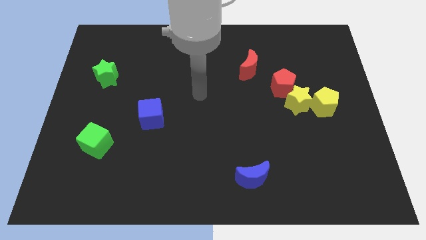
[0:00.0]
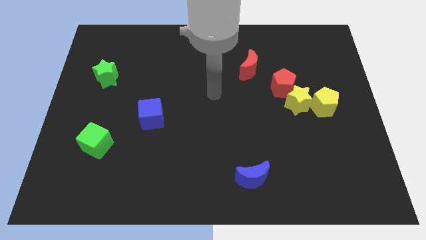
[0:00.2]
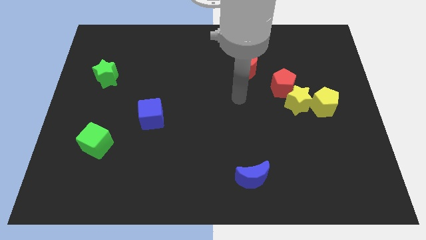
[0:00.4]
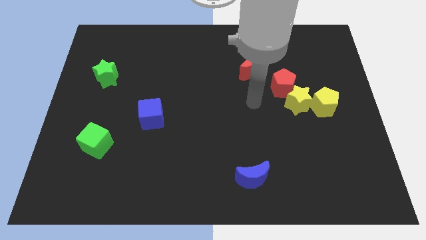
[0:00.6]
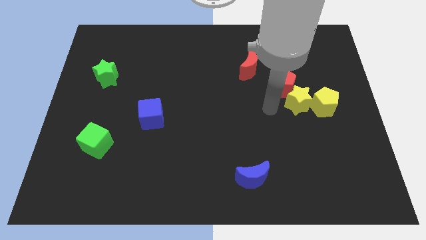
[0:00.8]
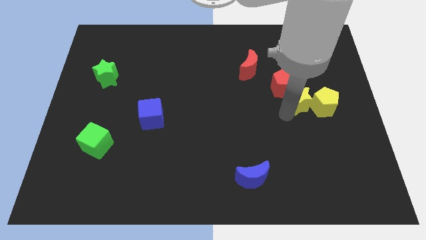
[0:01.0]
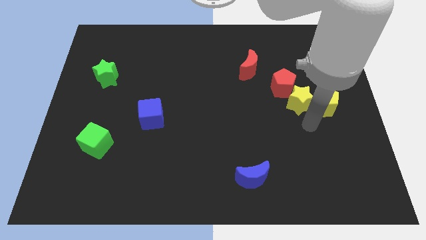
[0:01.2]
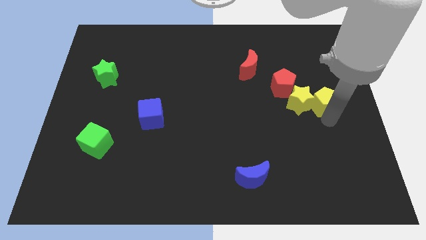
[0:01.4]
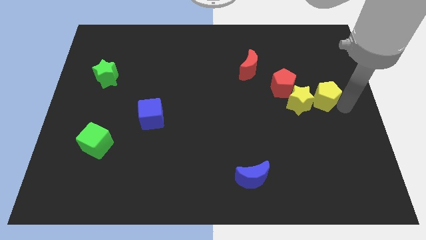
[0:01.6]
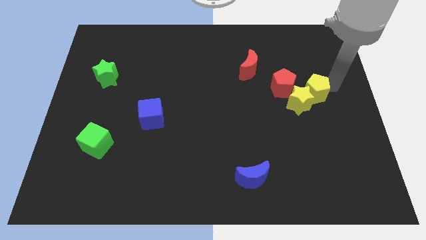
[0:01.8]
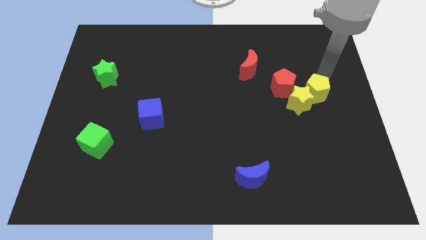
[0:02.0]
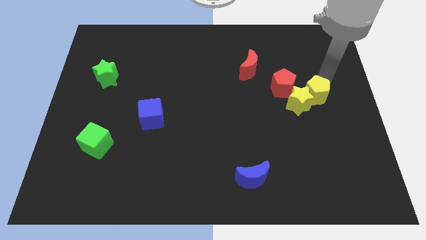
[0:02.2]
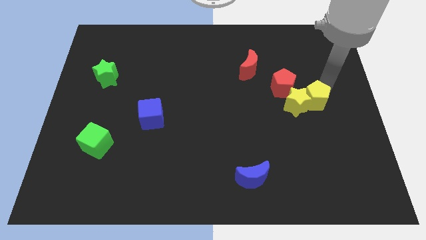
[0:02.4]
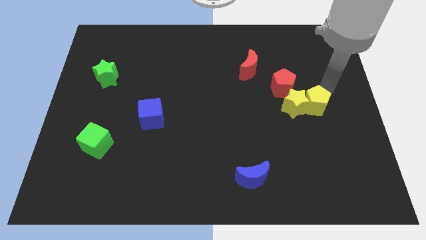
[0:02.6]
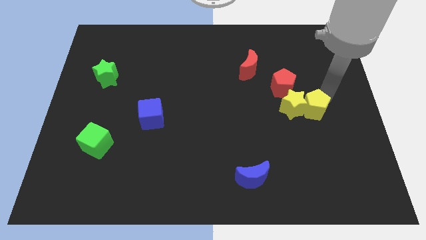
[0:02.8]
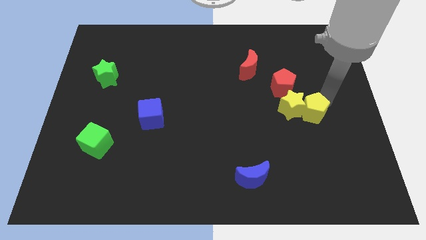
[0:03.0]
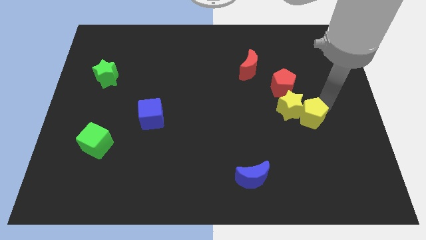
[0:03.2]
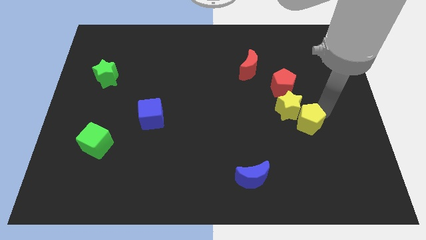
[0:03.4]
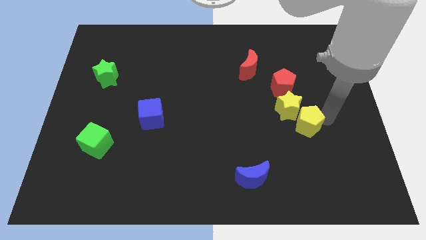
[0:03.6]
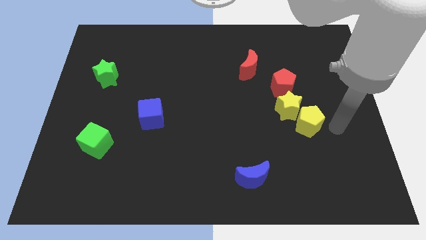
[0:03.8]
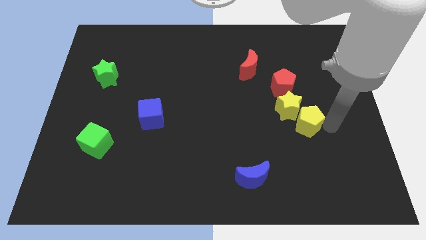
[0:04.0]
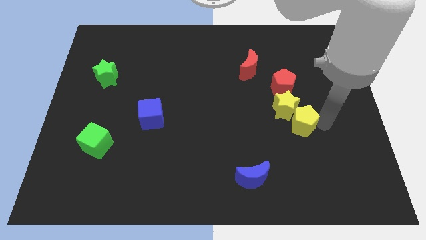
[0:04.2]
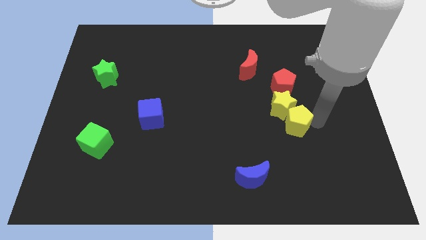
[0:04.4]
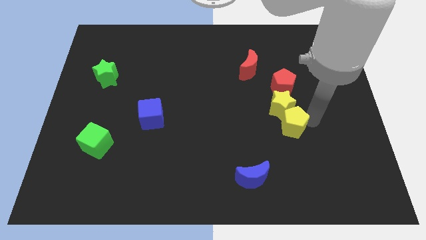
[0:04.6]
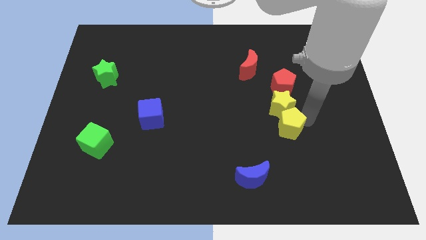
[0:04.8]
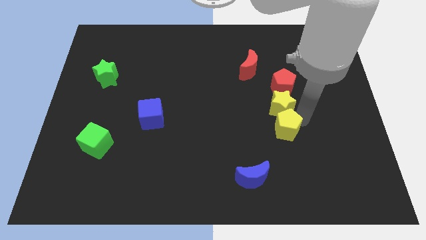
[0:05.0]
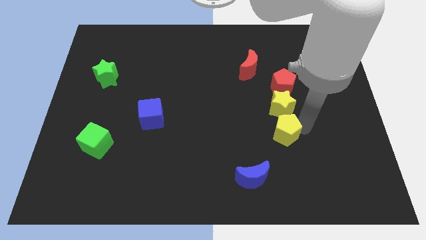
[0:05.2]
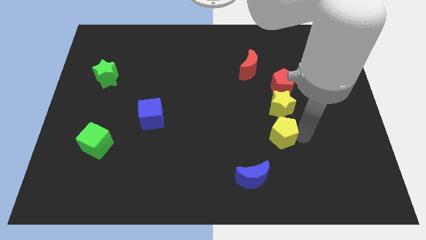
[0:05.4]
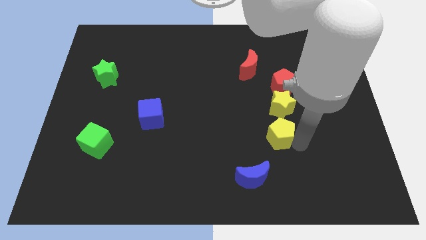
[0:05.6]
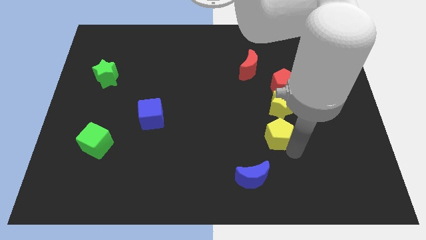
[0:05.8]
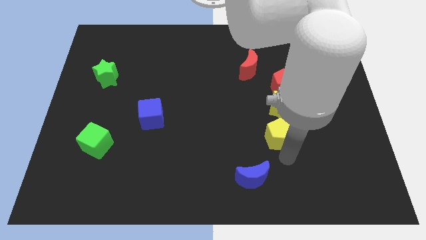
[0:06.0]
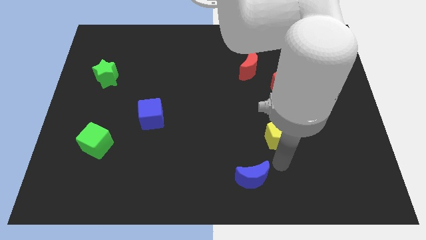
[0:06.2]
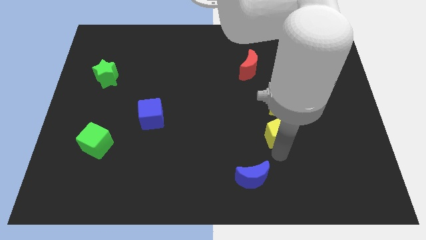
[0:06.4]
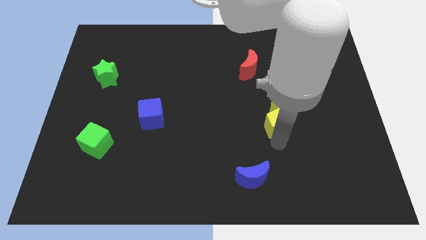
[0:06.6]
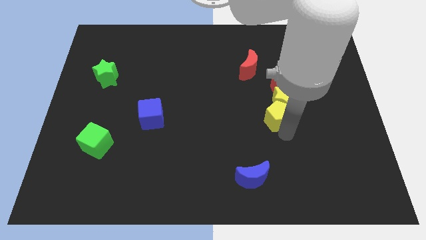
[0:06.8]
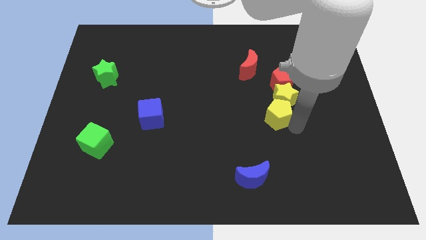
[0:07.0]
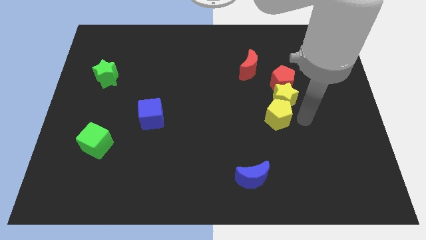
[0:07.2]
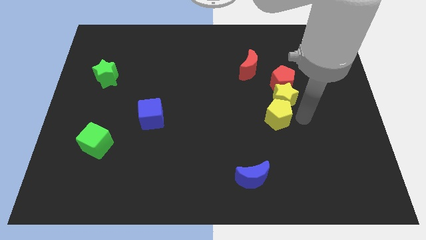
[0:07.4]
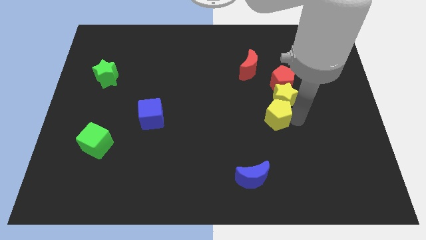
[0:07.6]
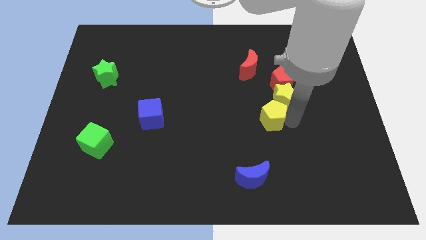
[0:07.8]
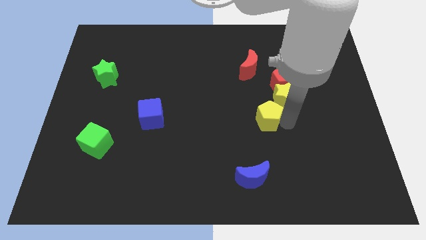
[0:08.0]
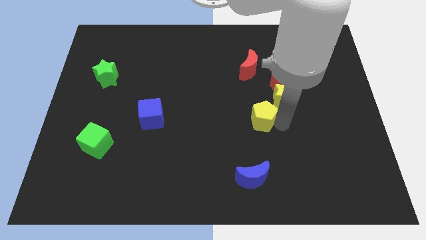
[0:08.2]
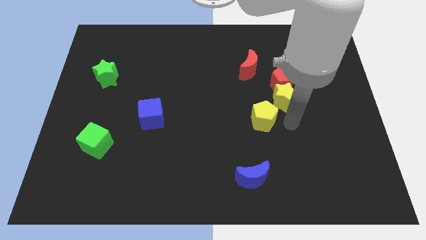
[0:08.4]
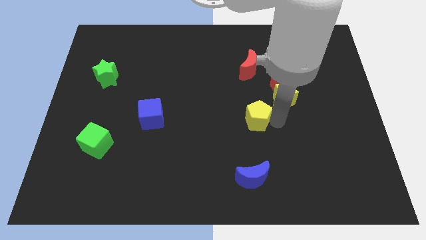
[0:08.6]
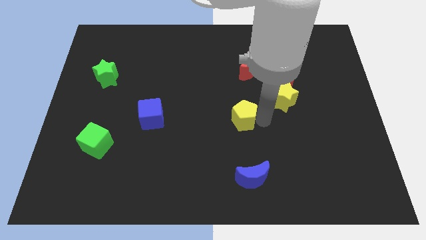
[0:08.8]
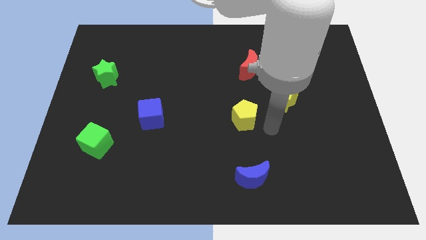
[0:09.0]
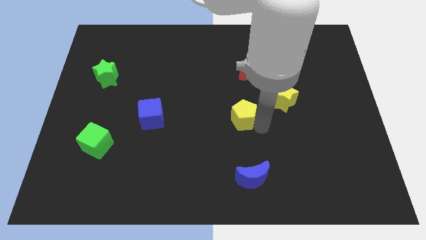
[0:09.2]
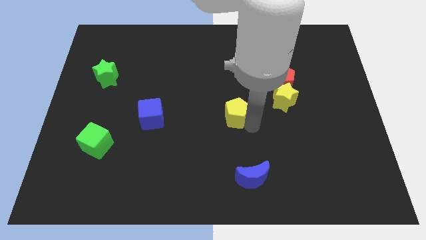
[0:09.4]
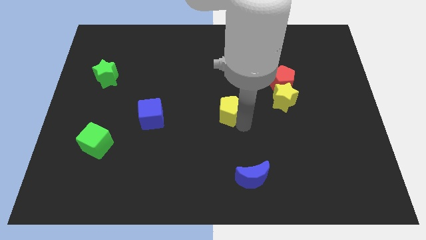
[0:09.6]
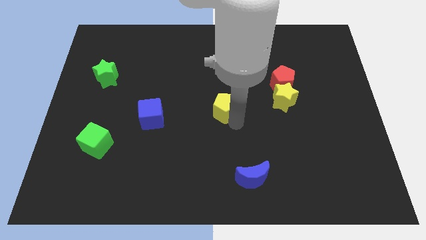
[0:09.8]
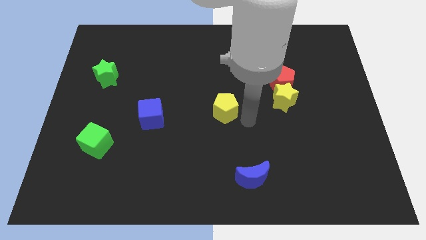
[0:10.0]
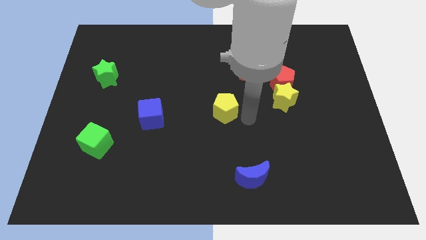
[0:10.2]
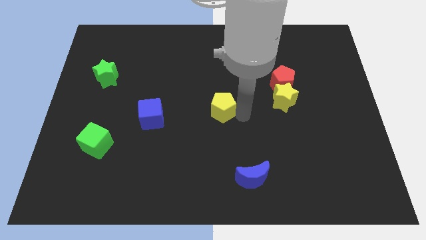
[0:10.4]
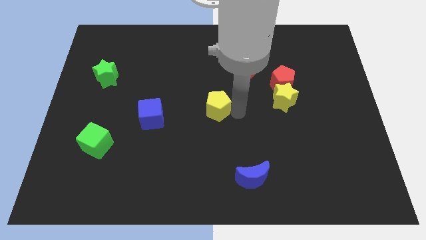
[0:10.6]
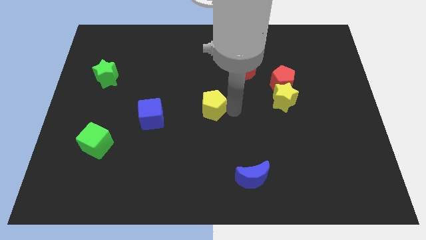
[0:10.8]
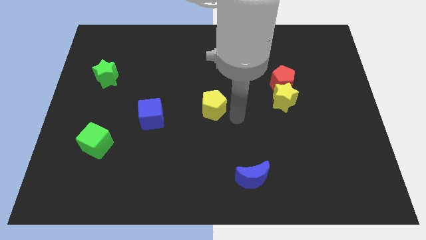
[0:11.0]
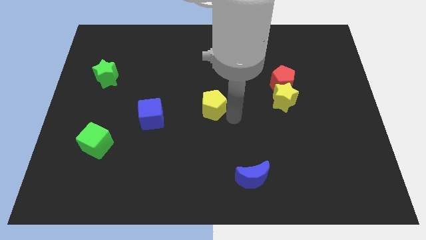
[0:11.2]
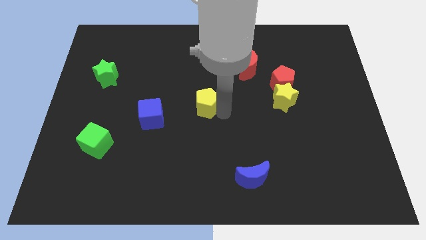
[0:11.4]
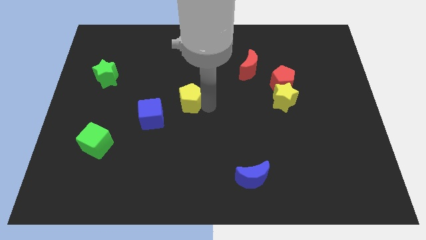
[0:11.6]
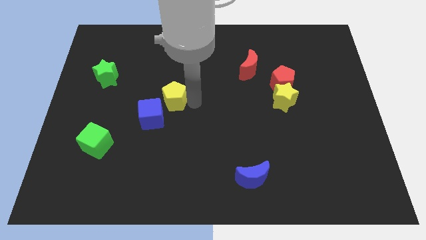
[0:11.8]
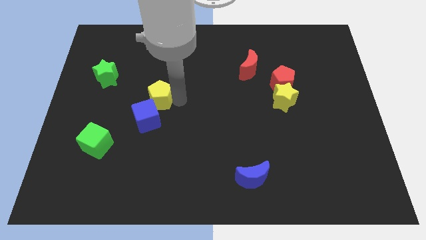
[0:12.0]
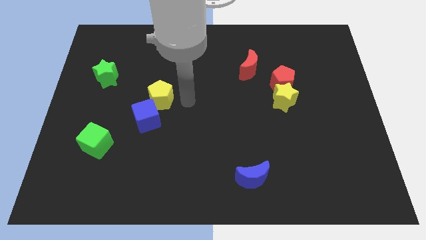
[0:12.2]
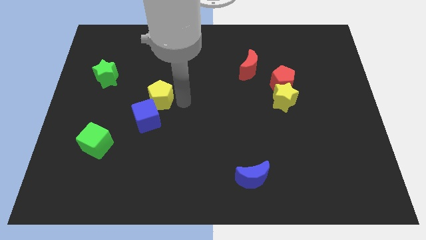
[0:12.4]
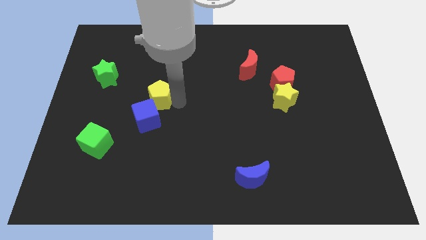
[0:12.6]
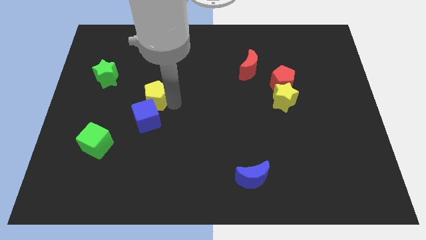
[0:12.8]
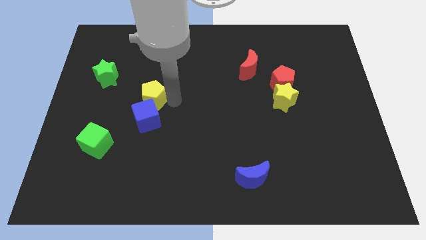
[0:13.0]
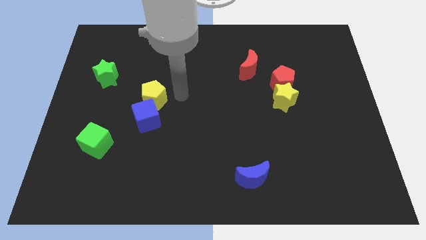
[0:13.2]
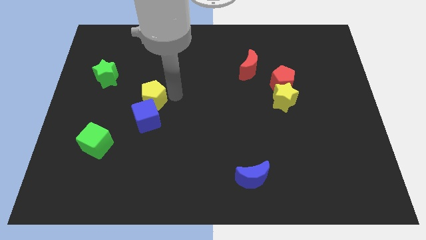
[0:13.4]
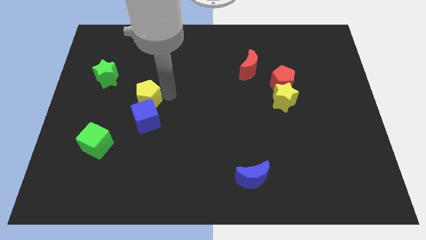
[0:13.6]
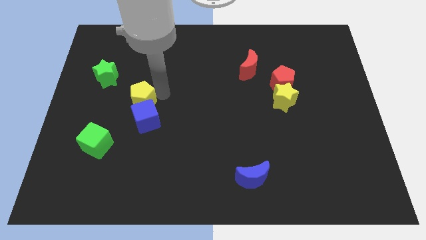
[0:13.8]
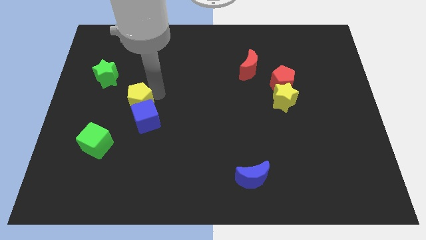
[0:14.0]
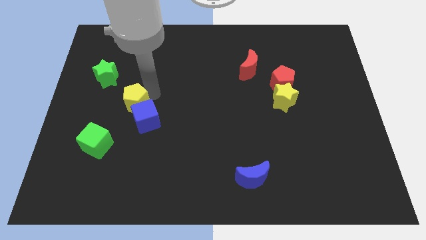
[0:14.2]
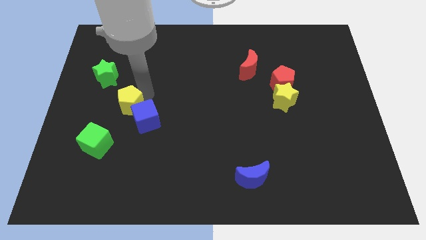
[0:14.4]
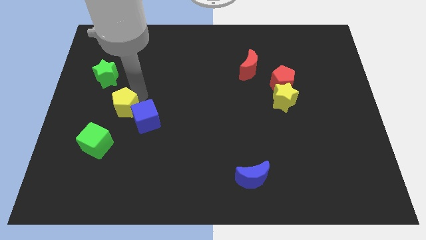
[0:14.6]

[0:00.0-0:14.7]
push the yellow pentagon to the top side of the green cube

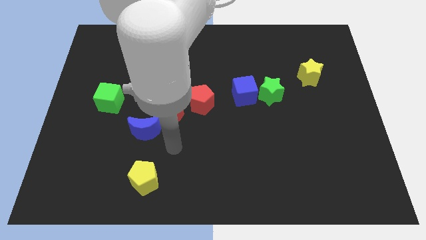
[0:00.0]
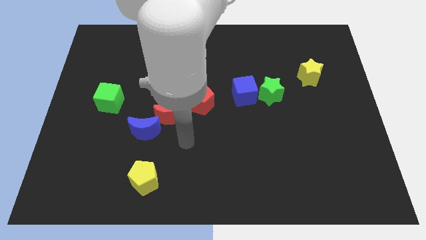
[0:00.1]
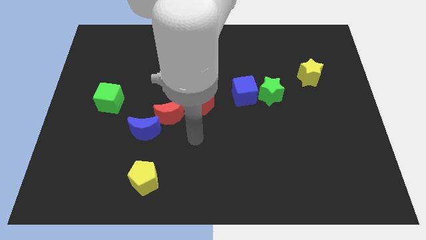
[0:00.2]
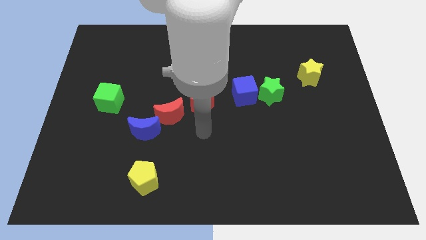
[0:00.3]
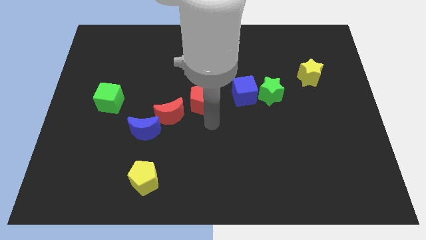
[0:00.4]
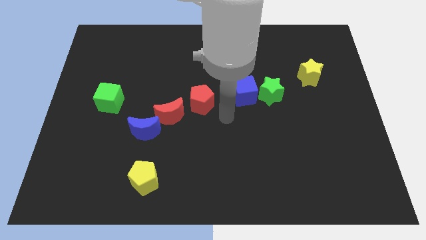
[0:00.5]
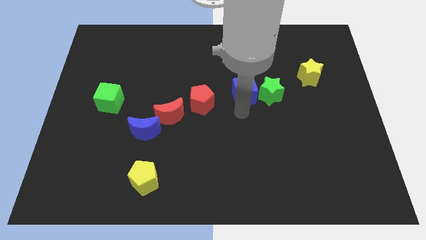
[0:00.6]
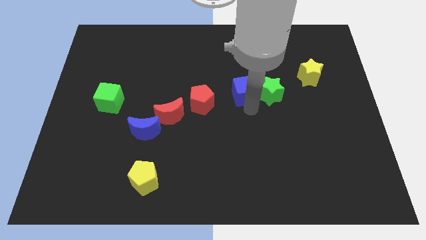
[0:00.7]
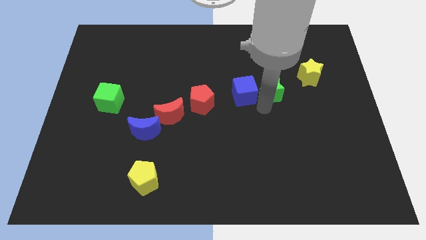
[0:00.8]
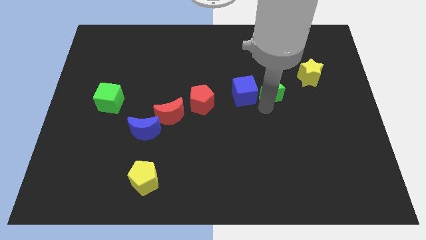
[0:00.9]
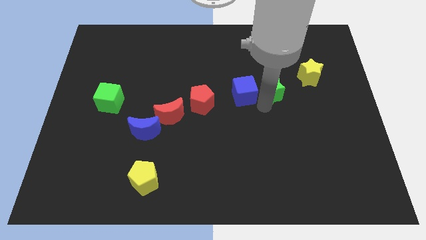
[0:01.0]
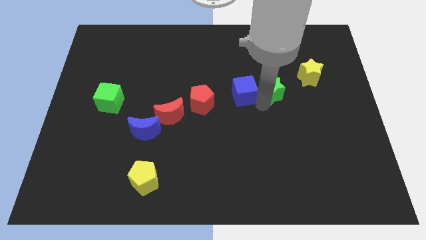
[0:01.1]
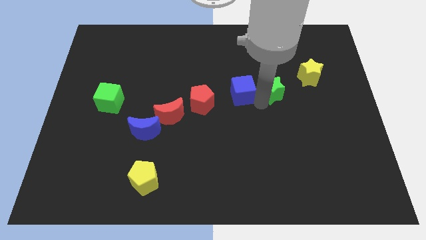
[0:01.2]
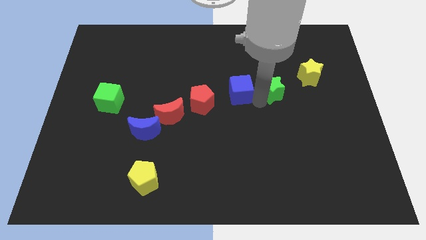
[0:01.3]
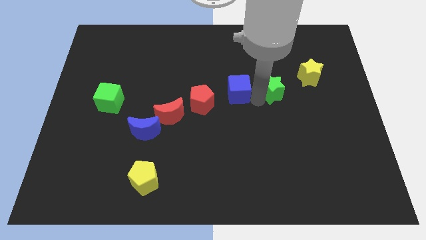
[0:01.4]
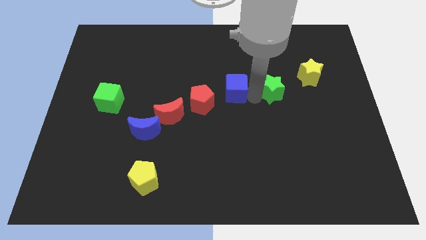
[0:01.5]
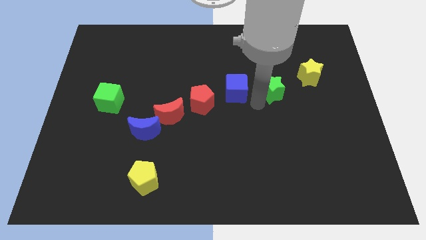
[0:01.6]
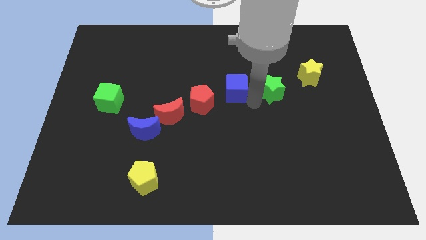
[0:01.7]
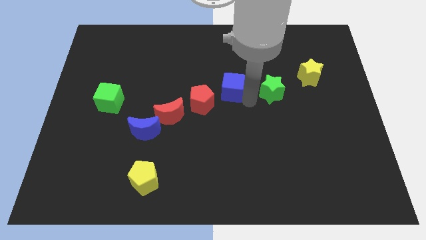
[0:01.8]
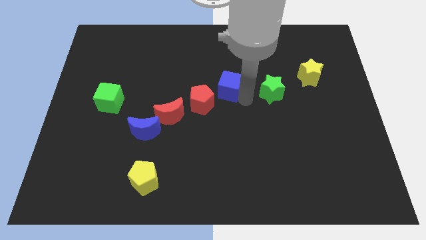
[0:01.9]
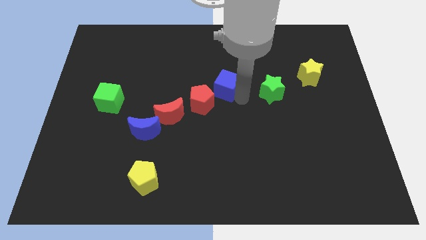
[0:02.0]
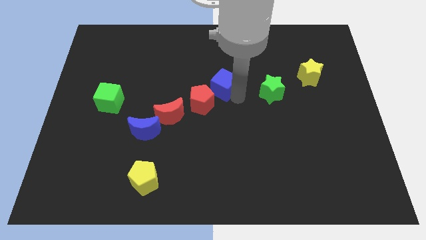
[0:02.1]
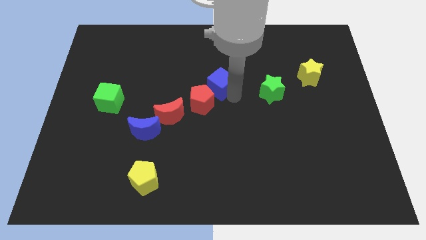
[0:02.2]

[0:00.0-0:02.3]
slide the blue cube to the top side of the red pentagon
